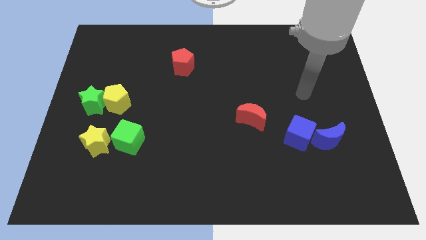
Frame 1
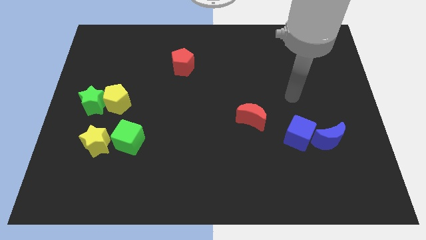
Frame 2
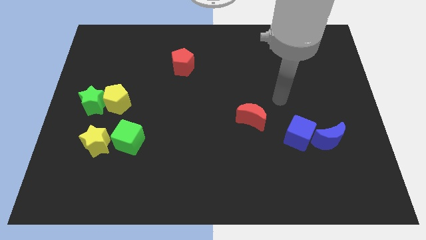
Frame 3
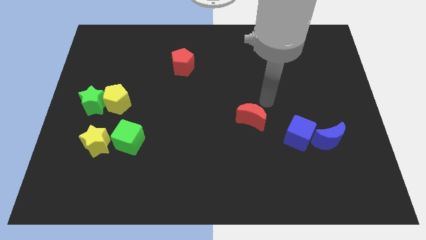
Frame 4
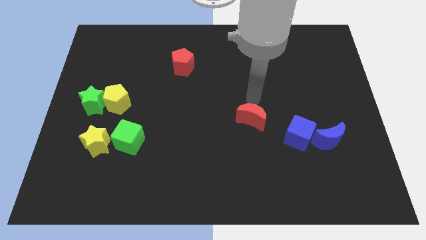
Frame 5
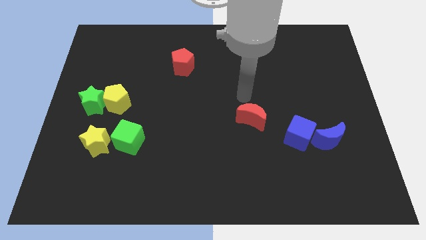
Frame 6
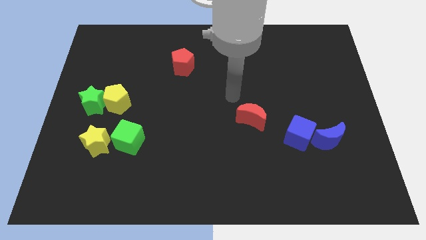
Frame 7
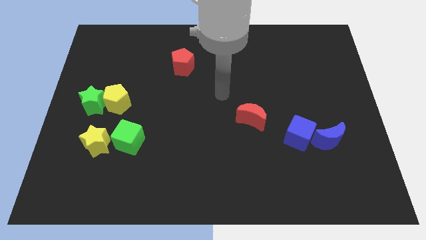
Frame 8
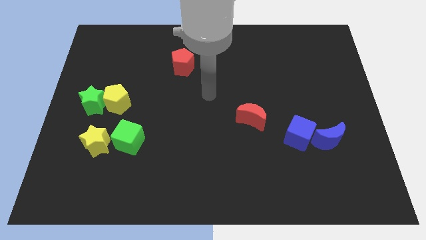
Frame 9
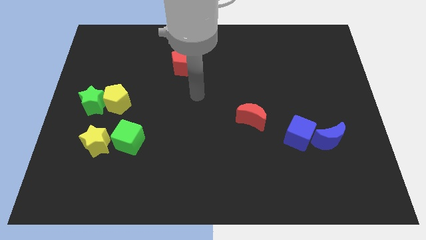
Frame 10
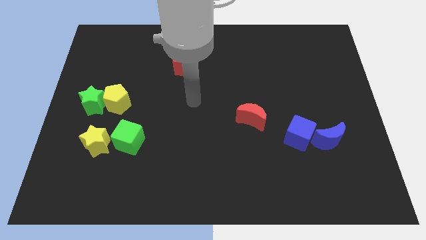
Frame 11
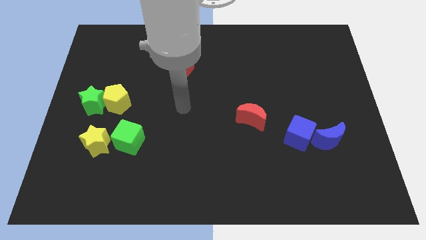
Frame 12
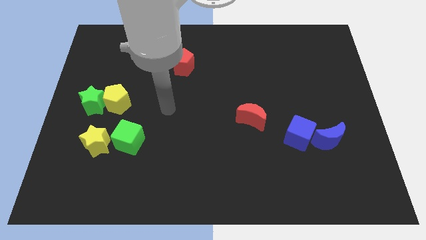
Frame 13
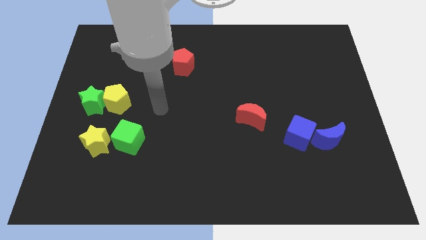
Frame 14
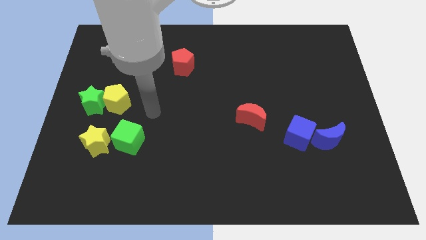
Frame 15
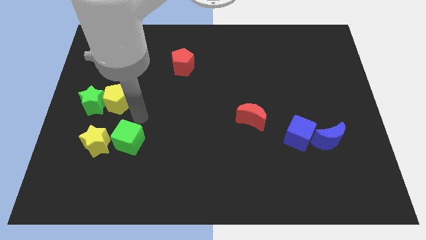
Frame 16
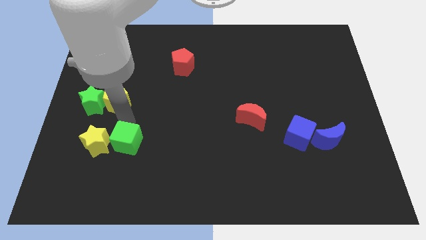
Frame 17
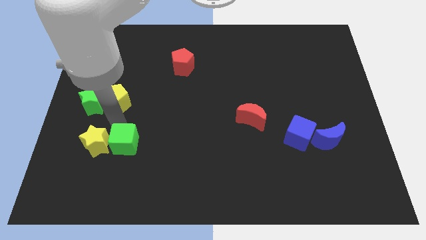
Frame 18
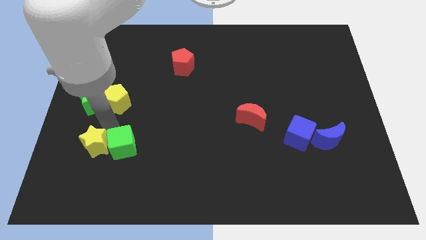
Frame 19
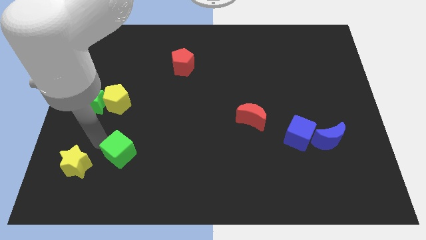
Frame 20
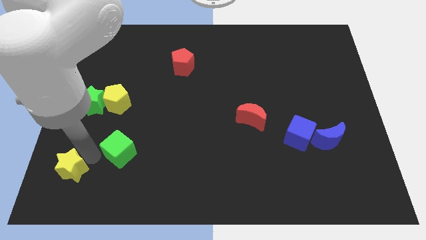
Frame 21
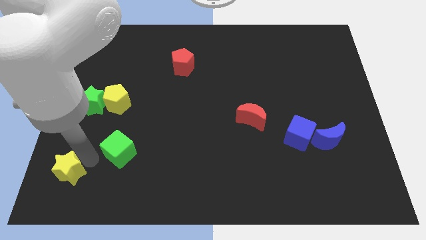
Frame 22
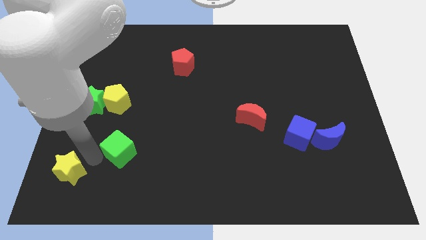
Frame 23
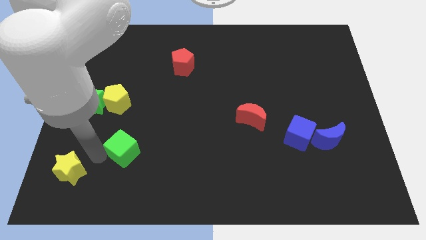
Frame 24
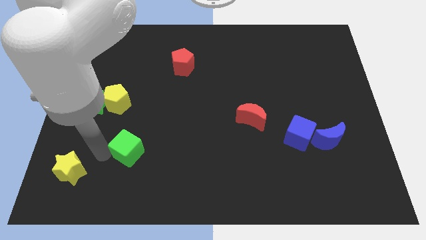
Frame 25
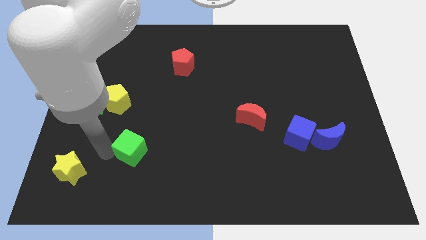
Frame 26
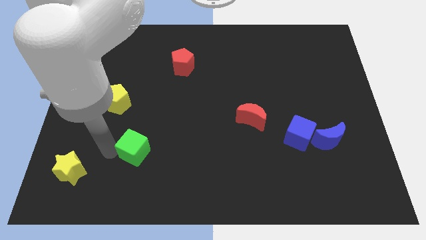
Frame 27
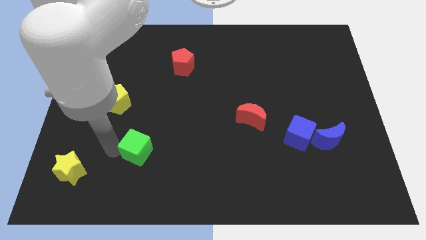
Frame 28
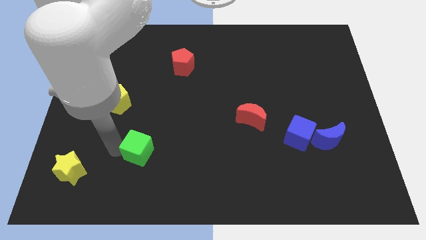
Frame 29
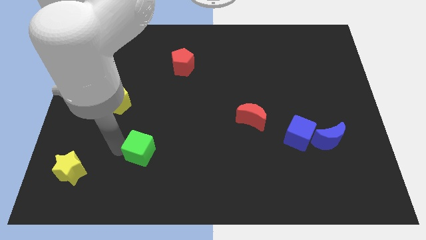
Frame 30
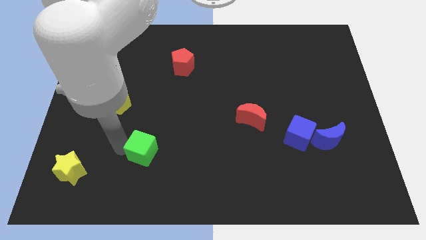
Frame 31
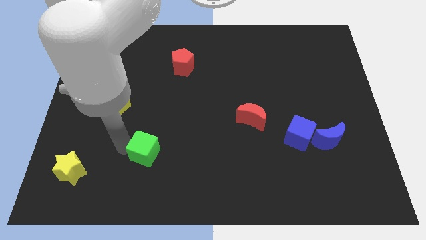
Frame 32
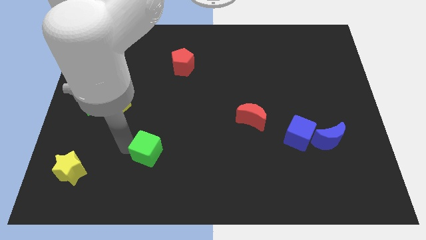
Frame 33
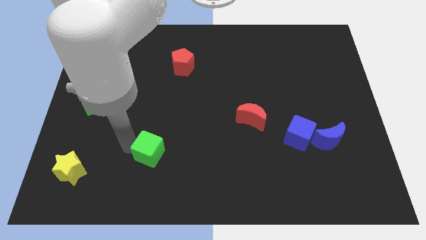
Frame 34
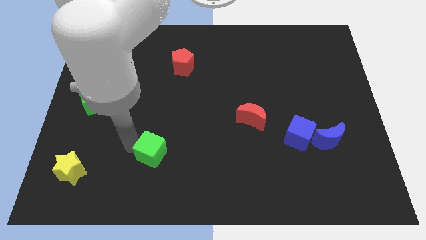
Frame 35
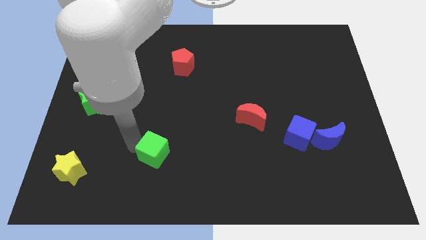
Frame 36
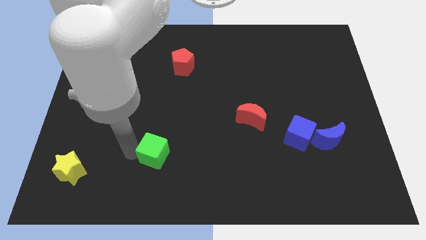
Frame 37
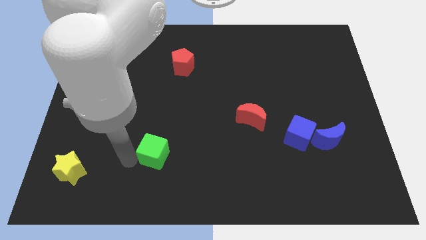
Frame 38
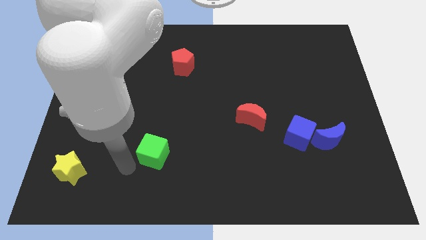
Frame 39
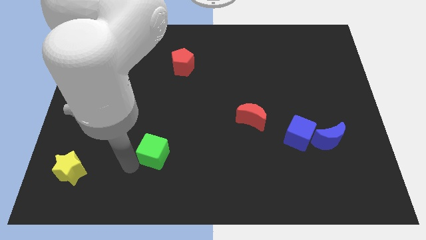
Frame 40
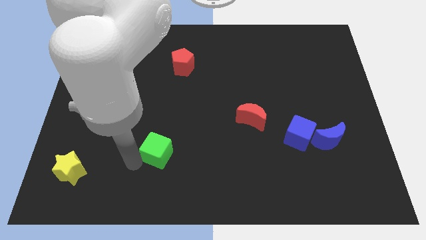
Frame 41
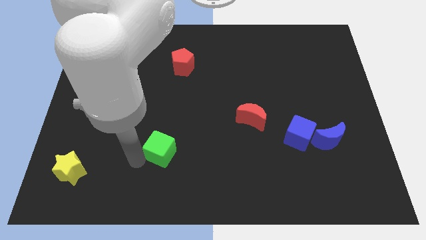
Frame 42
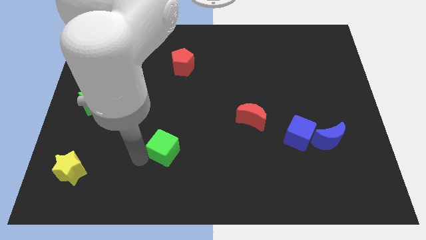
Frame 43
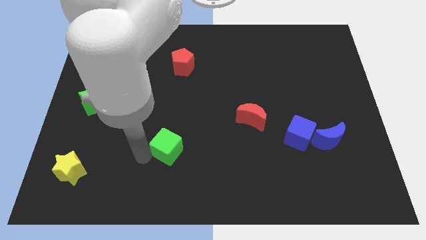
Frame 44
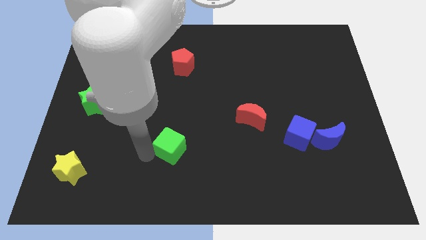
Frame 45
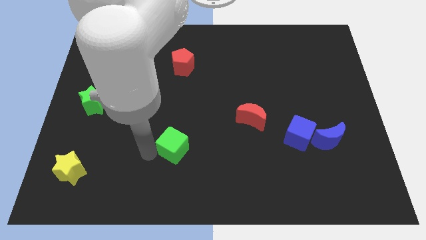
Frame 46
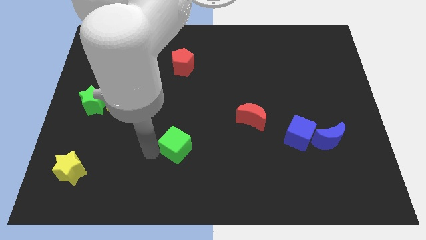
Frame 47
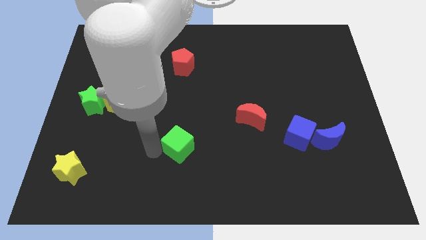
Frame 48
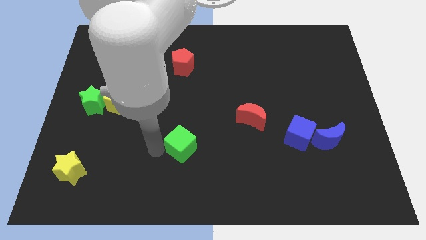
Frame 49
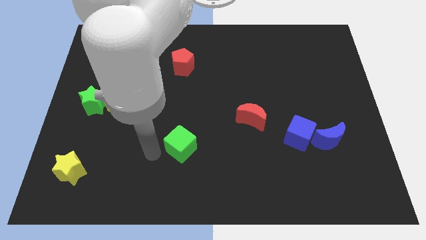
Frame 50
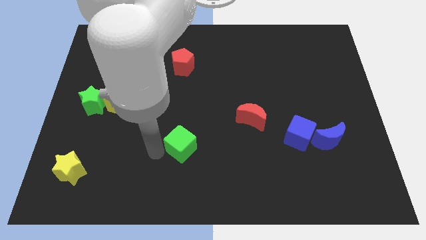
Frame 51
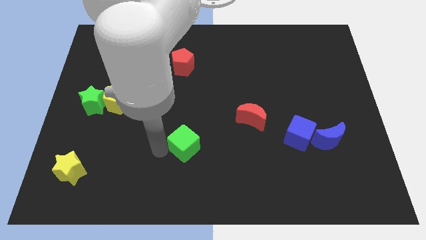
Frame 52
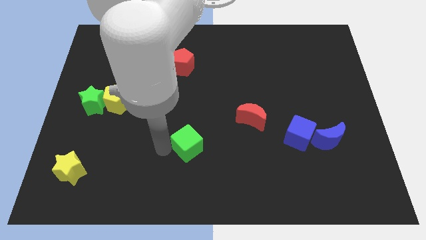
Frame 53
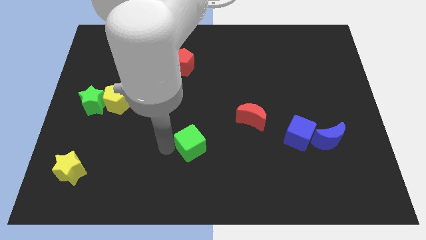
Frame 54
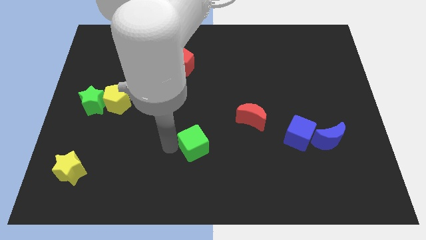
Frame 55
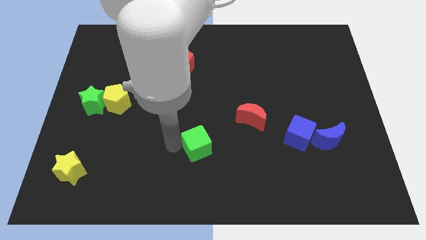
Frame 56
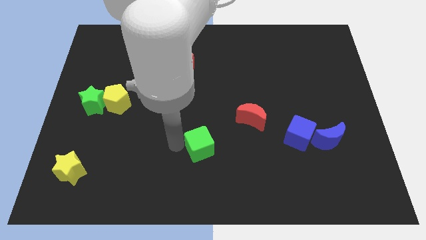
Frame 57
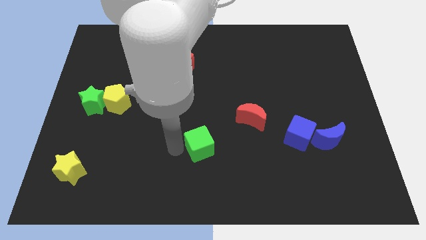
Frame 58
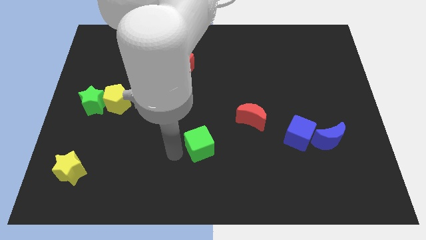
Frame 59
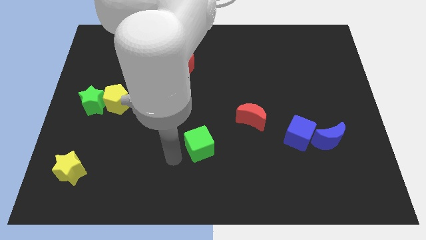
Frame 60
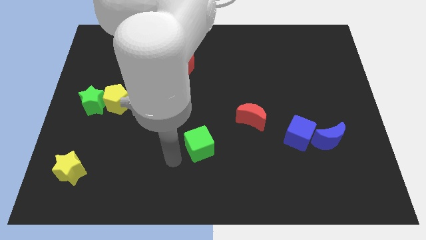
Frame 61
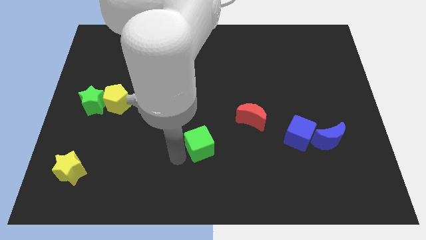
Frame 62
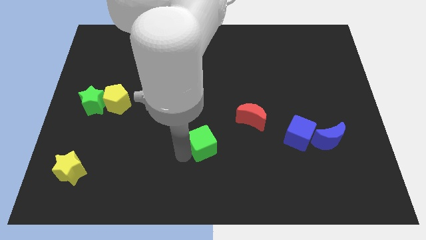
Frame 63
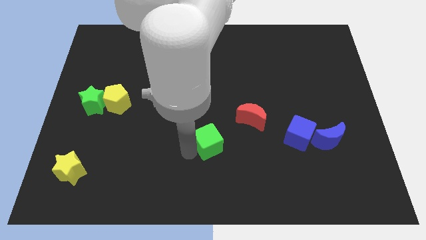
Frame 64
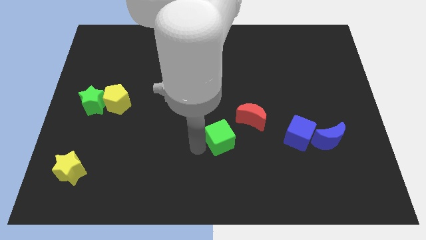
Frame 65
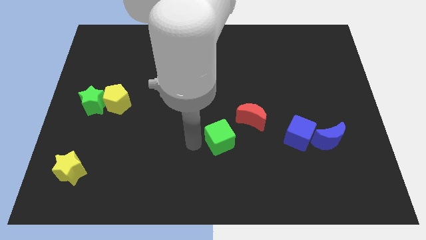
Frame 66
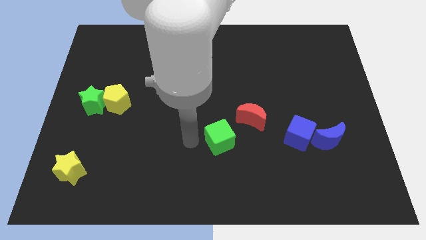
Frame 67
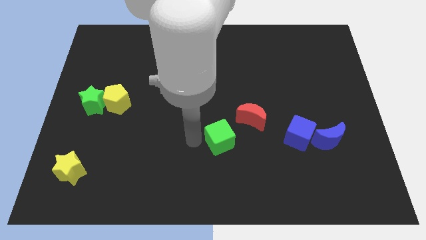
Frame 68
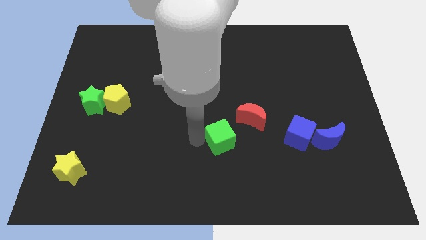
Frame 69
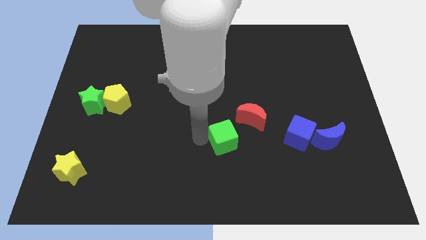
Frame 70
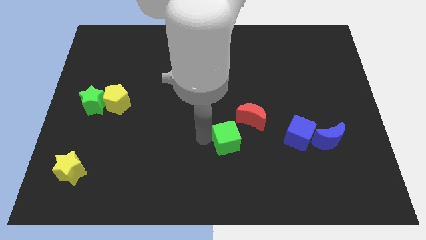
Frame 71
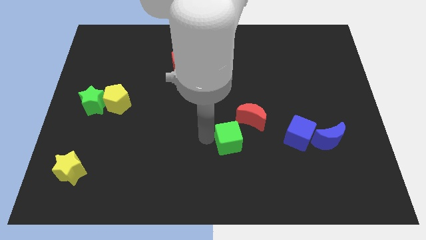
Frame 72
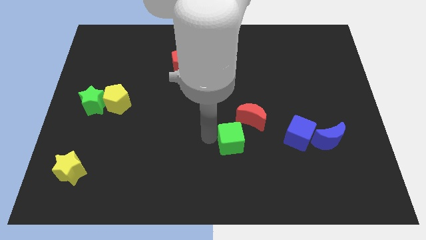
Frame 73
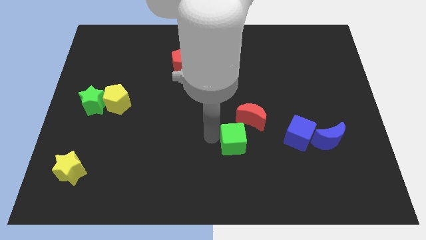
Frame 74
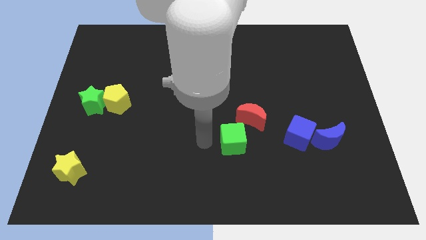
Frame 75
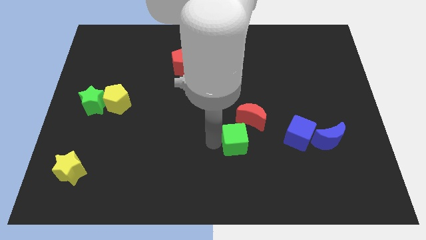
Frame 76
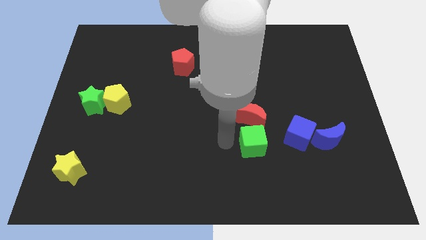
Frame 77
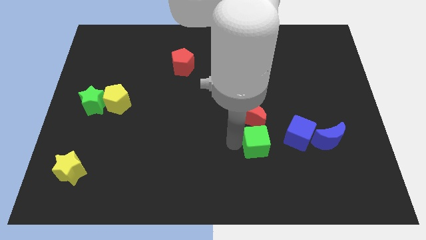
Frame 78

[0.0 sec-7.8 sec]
push the green cube left of the blue moon
